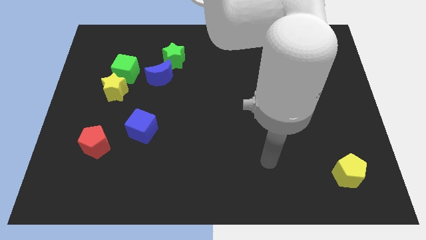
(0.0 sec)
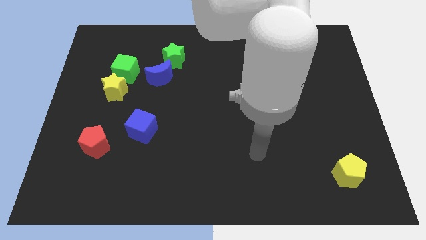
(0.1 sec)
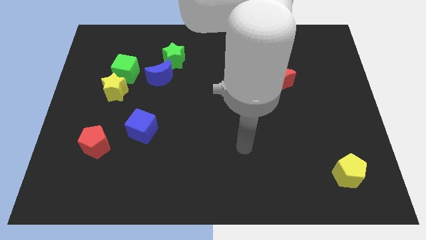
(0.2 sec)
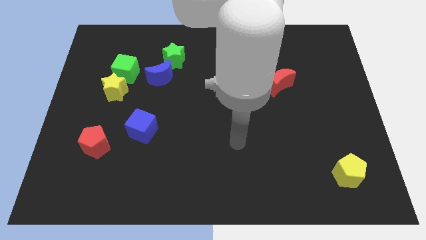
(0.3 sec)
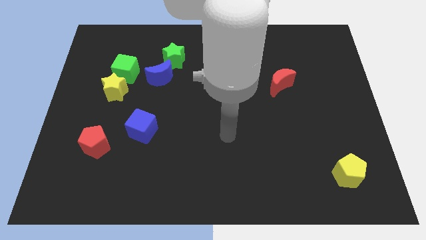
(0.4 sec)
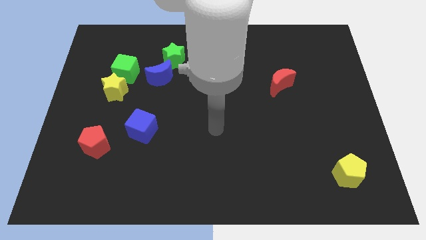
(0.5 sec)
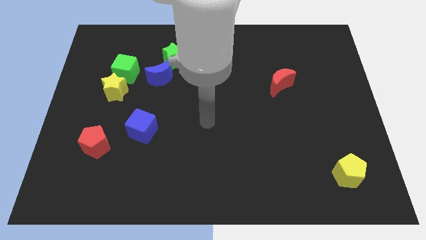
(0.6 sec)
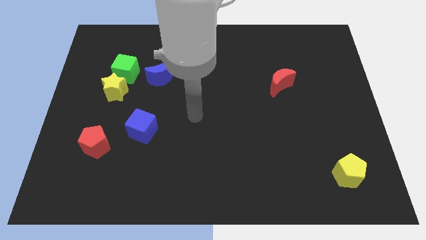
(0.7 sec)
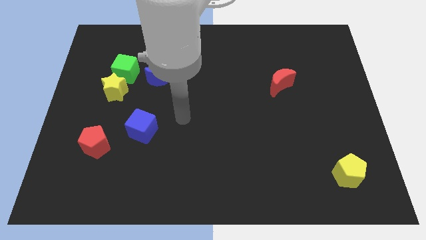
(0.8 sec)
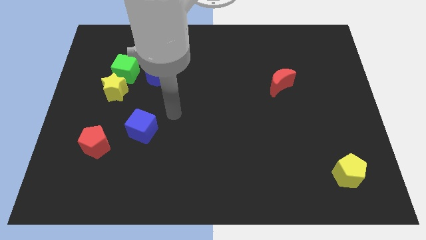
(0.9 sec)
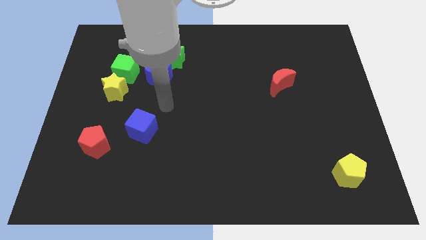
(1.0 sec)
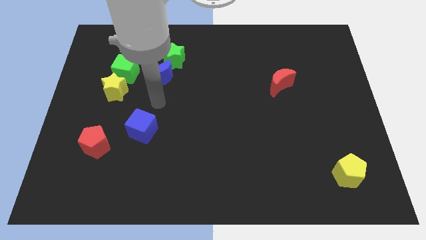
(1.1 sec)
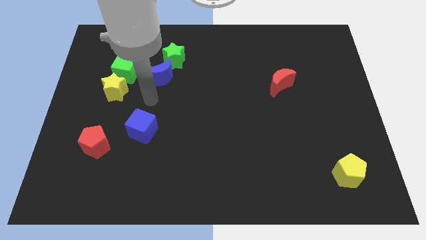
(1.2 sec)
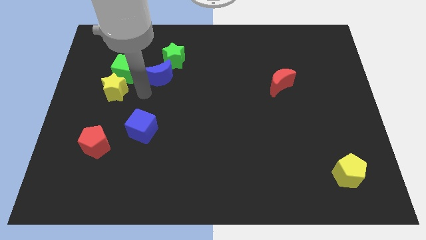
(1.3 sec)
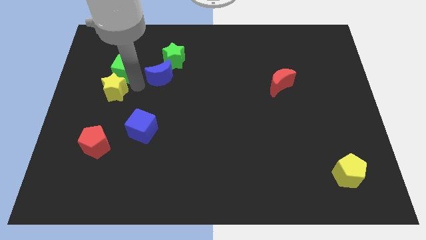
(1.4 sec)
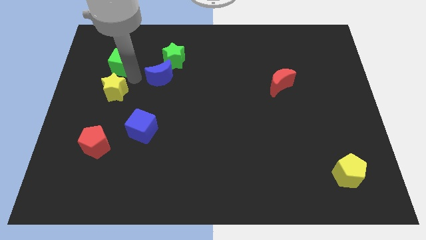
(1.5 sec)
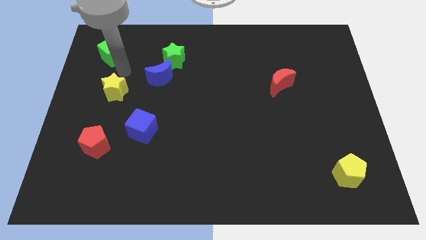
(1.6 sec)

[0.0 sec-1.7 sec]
move the yellow star away from the green cube

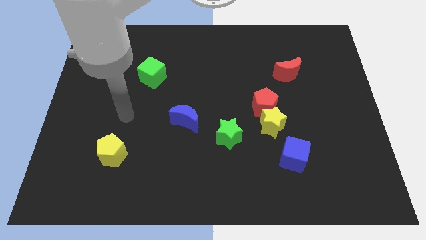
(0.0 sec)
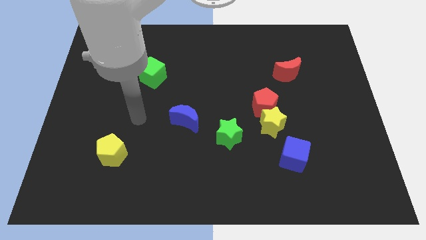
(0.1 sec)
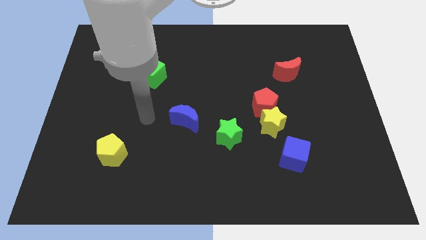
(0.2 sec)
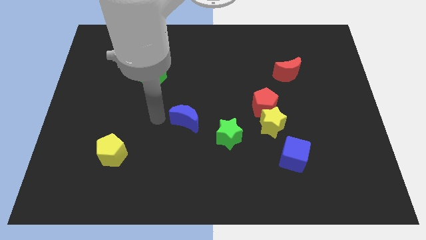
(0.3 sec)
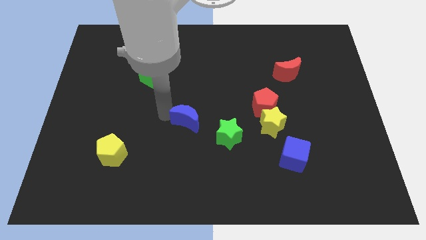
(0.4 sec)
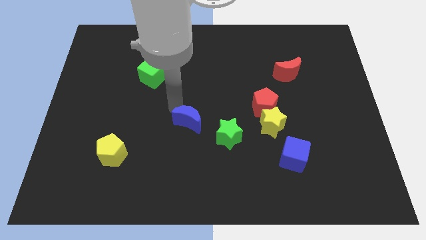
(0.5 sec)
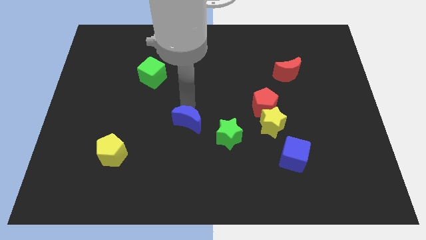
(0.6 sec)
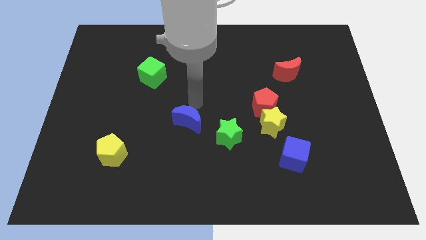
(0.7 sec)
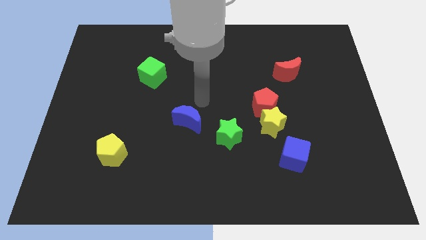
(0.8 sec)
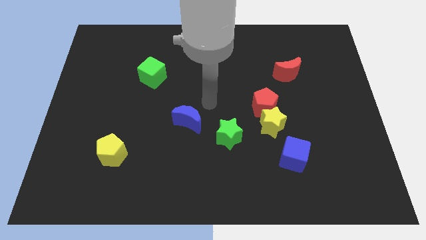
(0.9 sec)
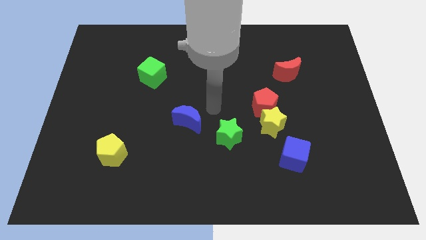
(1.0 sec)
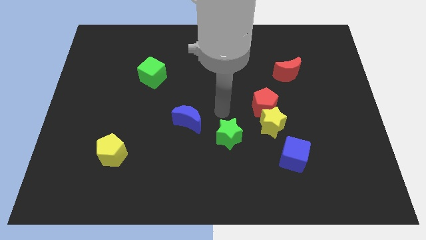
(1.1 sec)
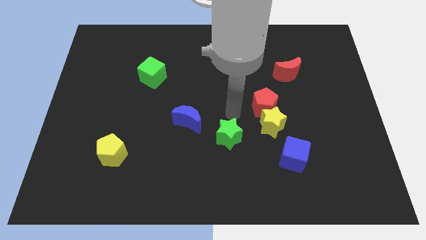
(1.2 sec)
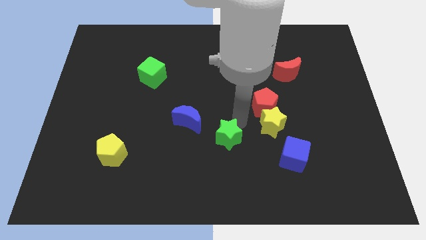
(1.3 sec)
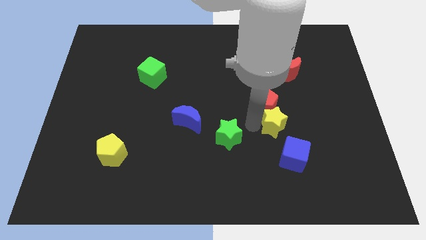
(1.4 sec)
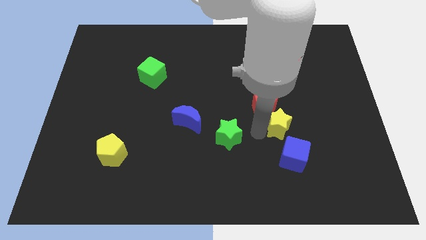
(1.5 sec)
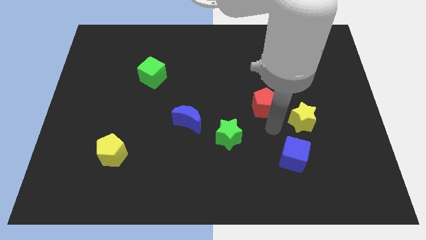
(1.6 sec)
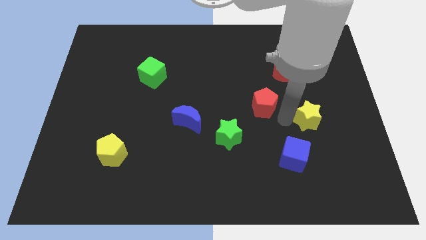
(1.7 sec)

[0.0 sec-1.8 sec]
move the red pentagon away from the yellow star

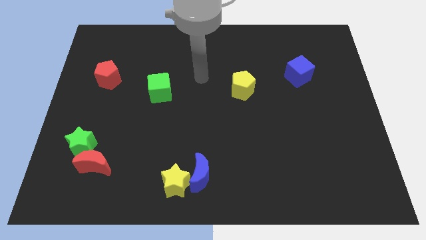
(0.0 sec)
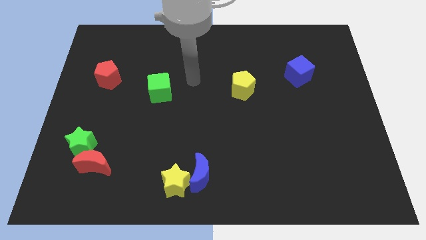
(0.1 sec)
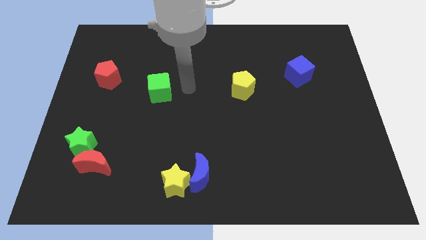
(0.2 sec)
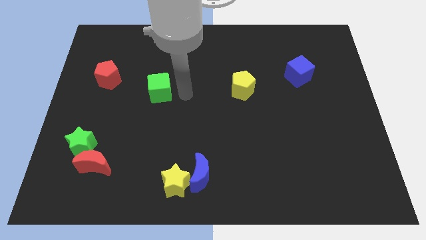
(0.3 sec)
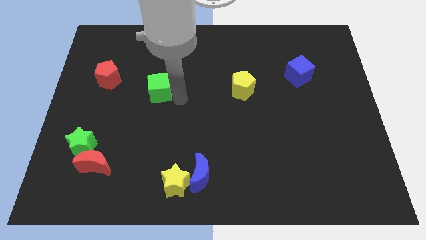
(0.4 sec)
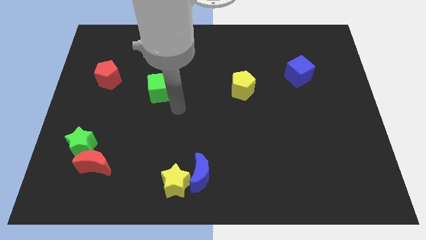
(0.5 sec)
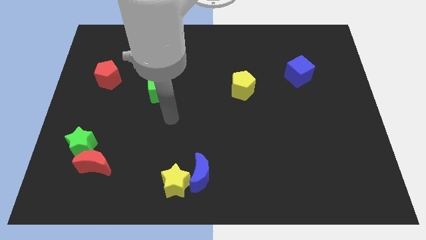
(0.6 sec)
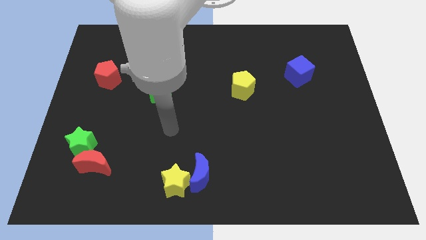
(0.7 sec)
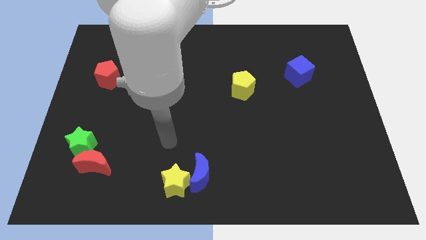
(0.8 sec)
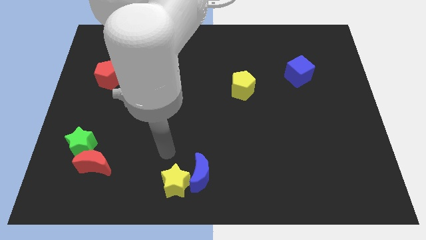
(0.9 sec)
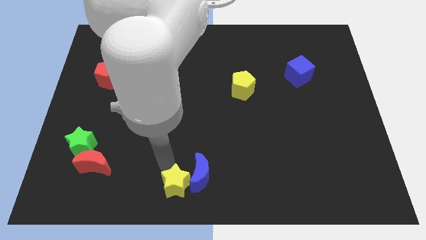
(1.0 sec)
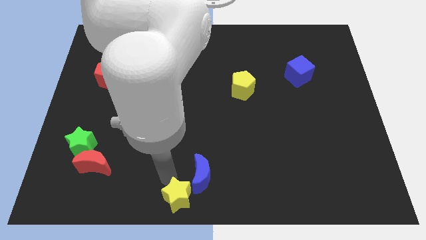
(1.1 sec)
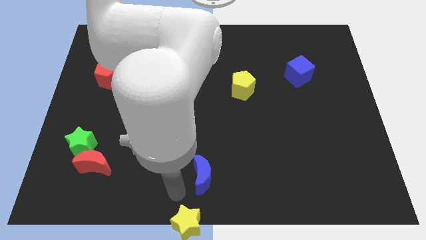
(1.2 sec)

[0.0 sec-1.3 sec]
move the blue moon away from the yellow star

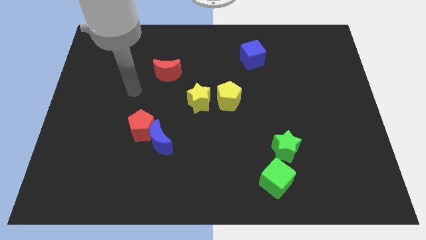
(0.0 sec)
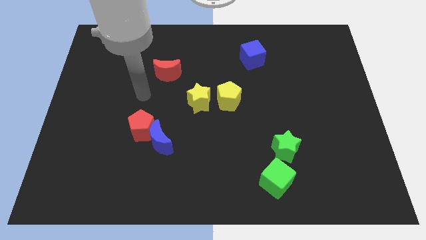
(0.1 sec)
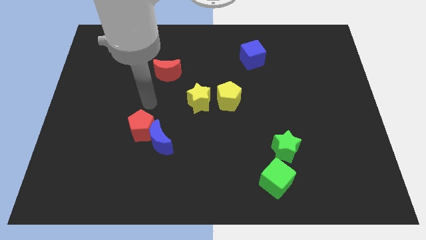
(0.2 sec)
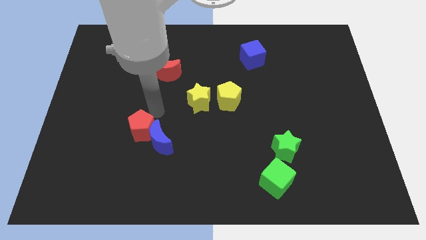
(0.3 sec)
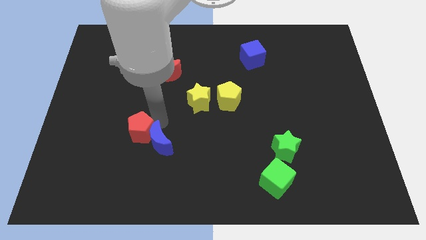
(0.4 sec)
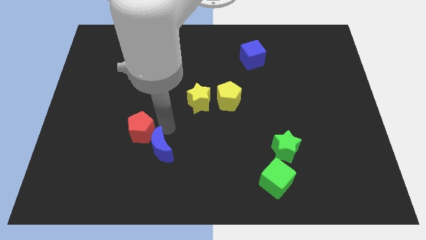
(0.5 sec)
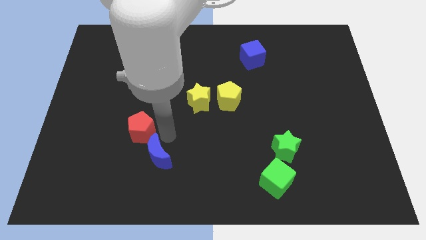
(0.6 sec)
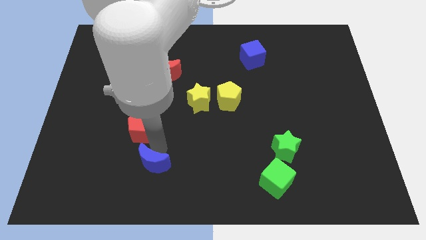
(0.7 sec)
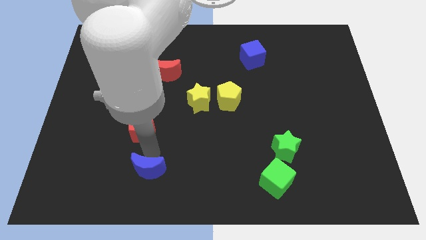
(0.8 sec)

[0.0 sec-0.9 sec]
pull the red pentagon apart from the blue moon

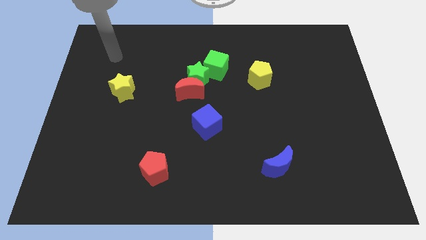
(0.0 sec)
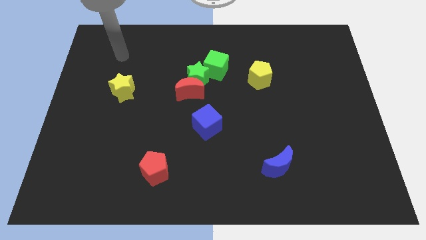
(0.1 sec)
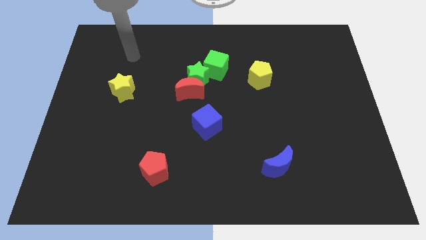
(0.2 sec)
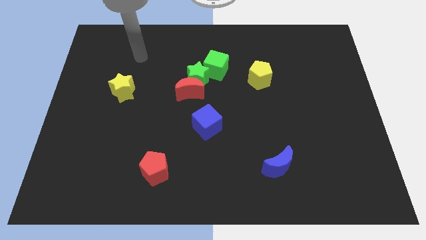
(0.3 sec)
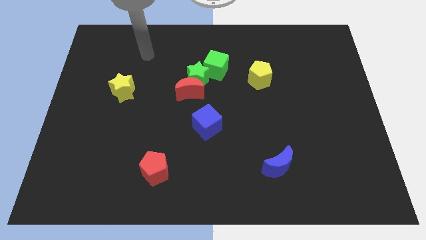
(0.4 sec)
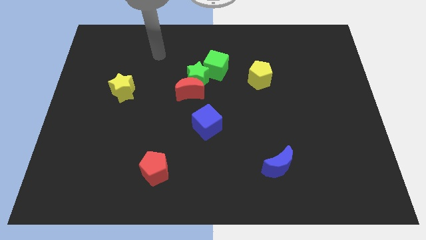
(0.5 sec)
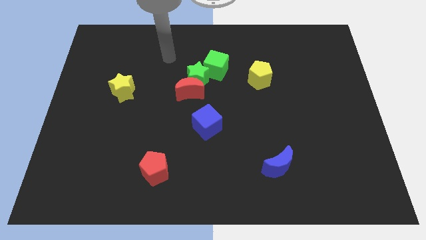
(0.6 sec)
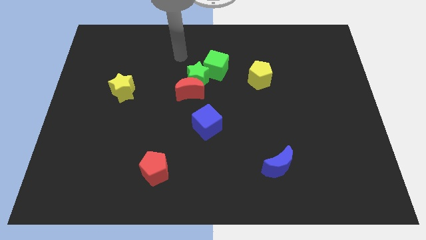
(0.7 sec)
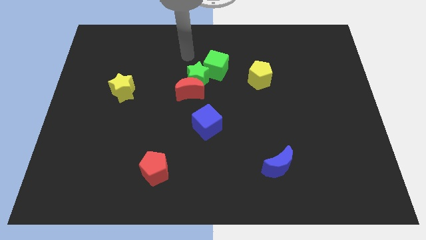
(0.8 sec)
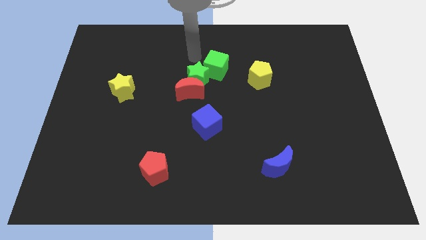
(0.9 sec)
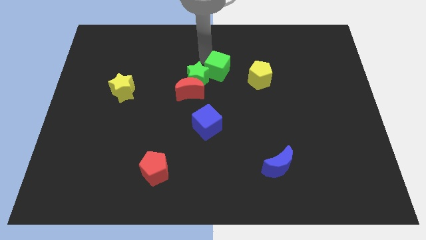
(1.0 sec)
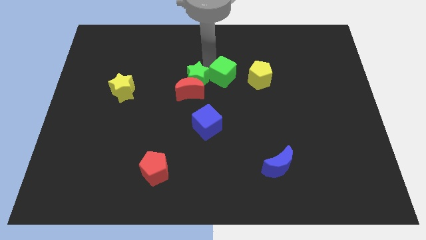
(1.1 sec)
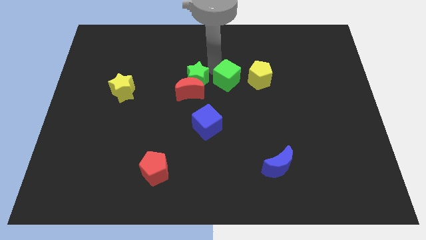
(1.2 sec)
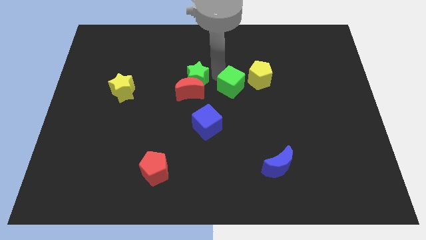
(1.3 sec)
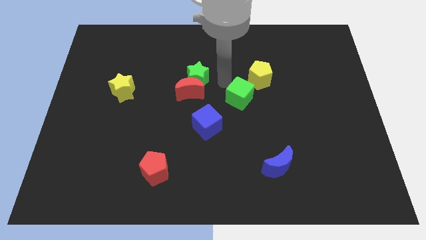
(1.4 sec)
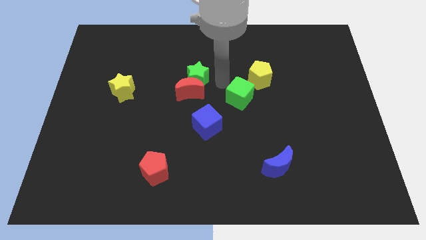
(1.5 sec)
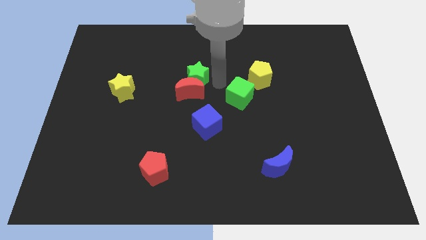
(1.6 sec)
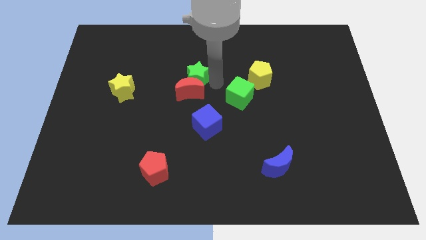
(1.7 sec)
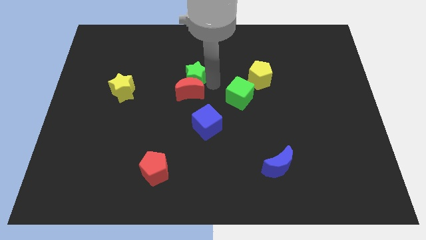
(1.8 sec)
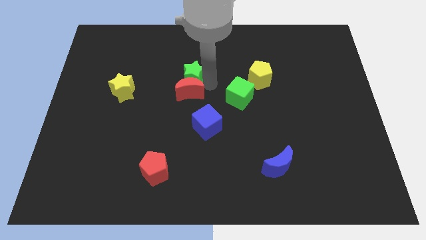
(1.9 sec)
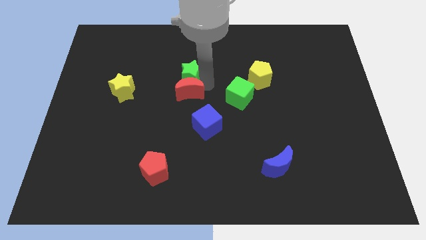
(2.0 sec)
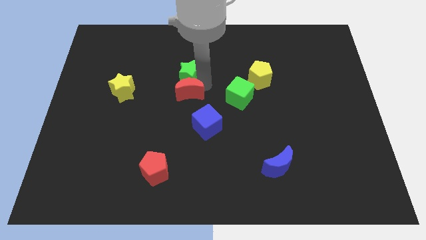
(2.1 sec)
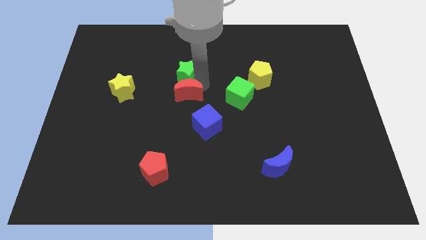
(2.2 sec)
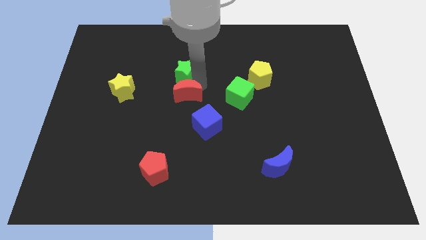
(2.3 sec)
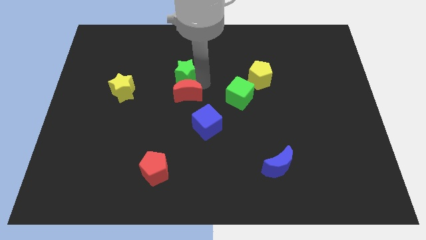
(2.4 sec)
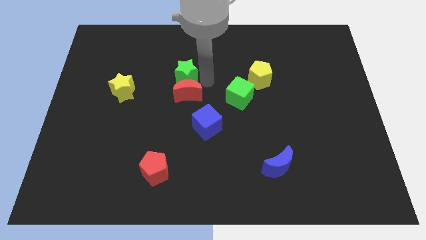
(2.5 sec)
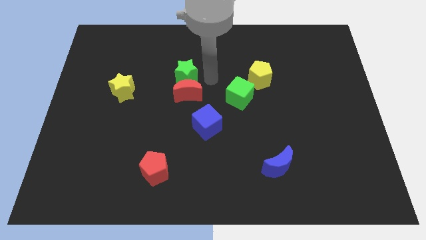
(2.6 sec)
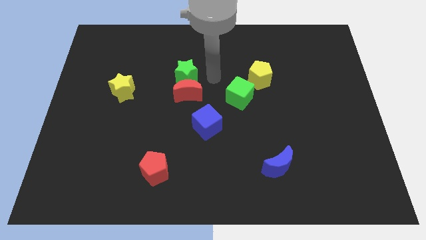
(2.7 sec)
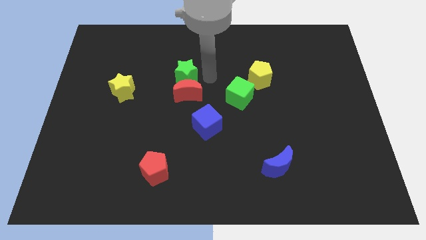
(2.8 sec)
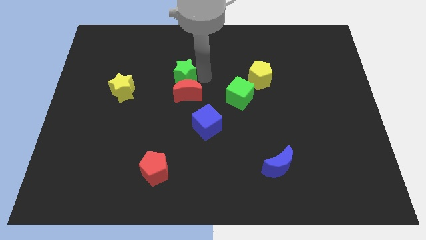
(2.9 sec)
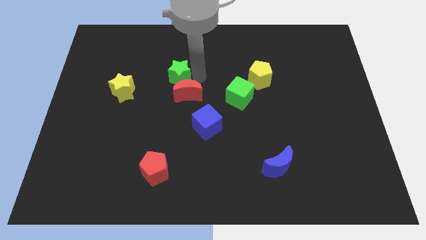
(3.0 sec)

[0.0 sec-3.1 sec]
move the green star away from the red moon and green cube

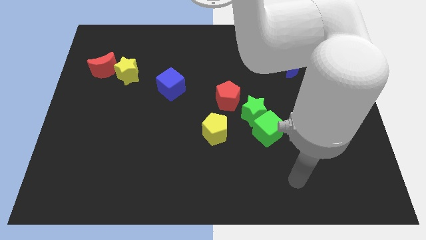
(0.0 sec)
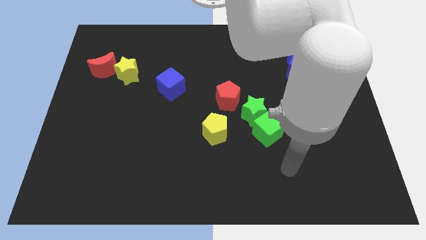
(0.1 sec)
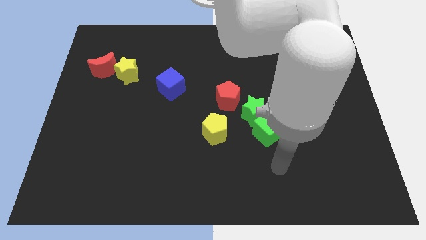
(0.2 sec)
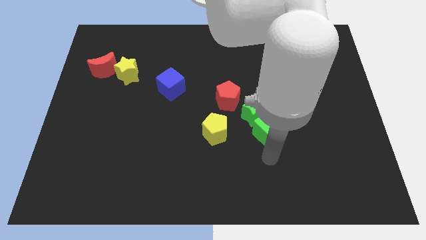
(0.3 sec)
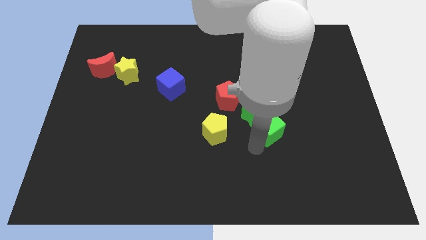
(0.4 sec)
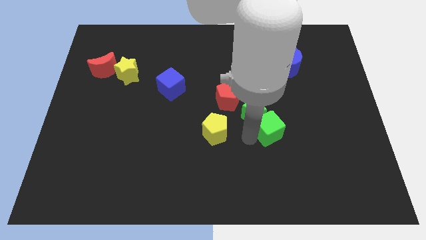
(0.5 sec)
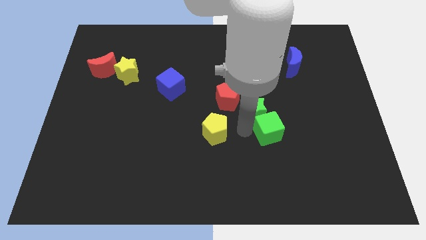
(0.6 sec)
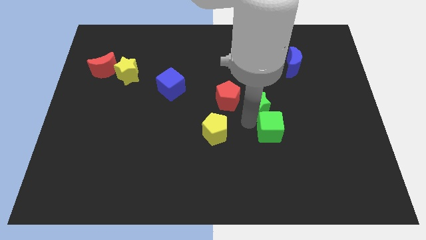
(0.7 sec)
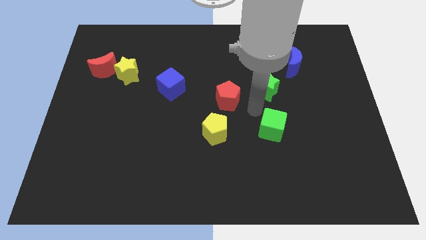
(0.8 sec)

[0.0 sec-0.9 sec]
move the green cube away from the green star
